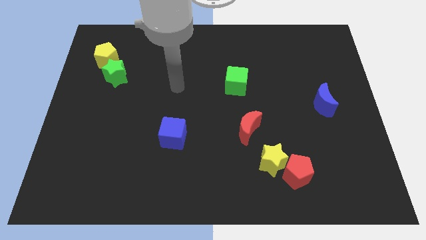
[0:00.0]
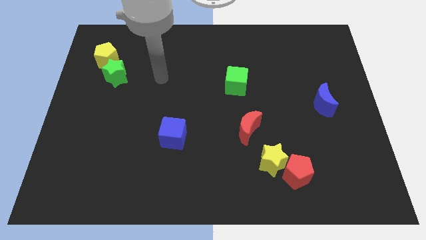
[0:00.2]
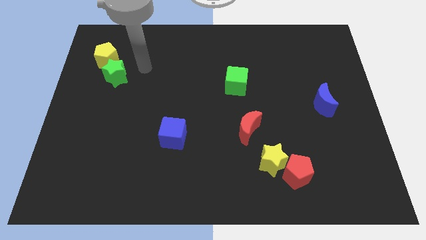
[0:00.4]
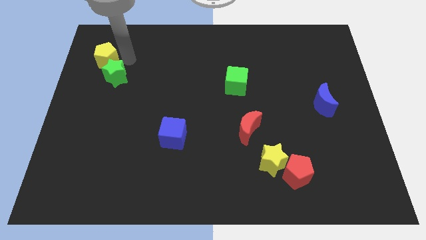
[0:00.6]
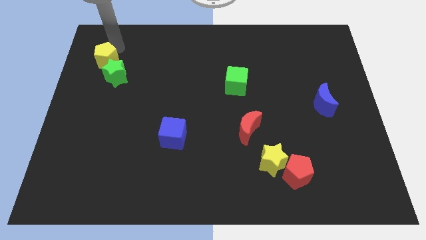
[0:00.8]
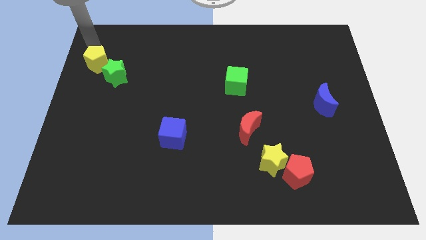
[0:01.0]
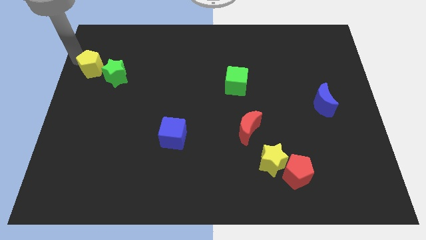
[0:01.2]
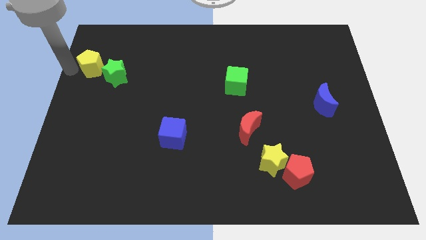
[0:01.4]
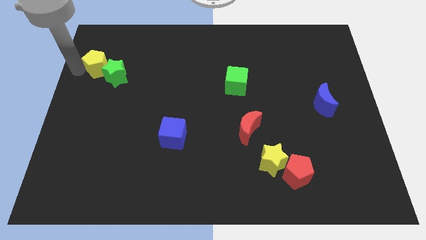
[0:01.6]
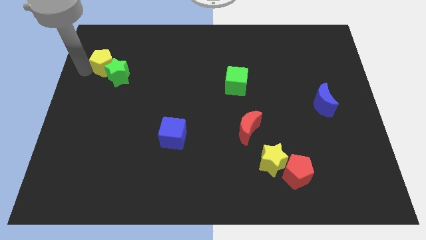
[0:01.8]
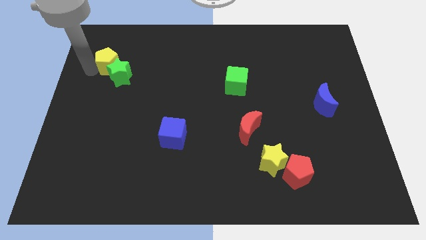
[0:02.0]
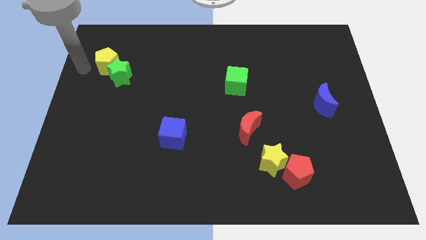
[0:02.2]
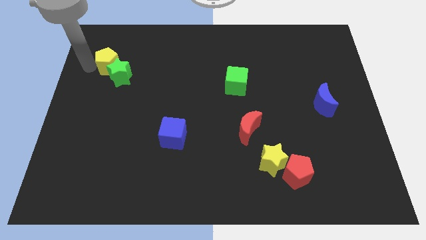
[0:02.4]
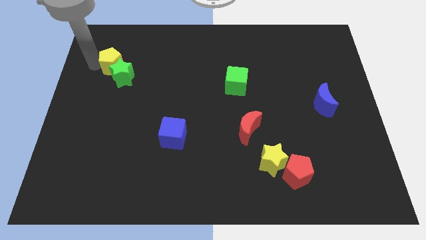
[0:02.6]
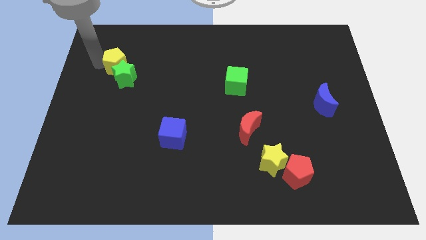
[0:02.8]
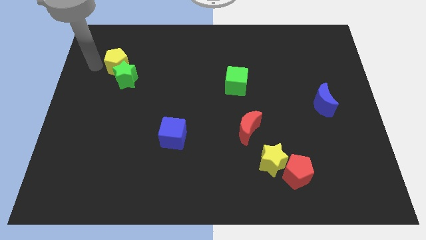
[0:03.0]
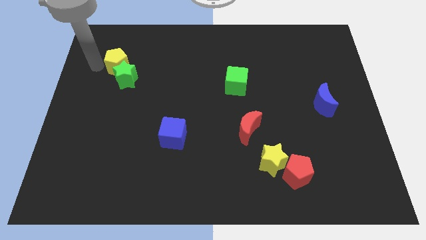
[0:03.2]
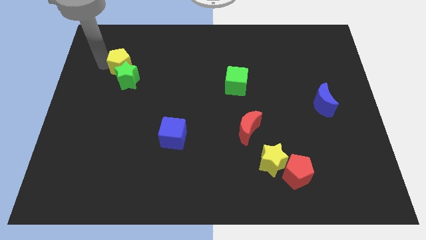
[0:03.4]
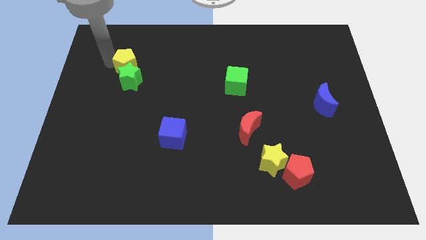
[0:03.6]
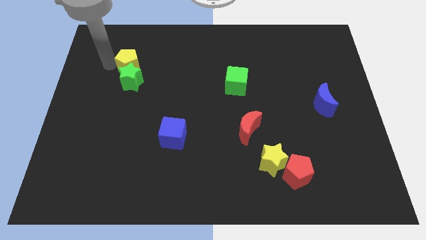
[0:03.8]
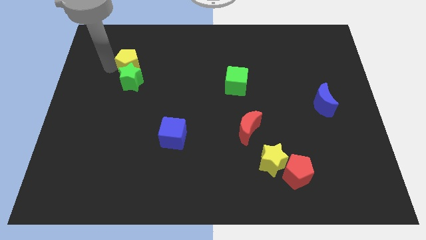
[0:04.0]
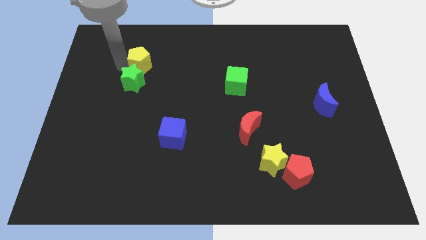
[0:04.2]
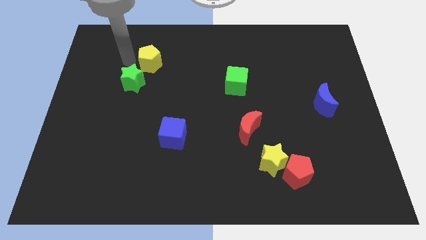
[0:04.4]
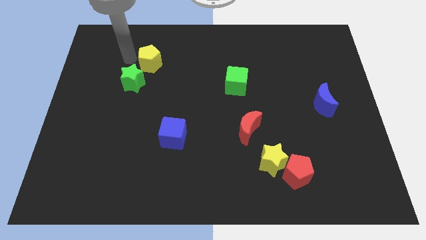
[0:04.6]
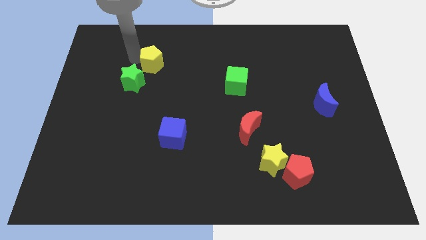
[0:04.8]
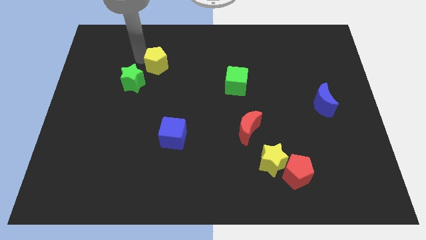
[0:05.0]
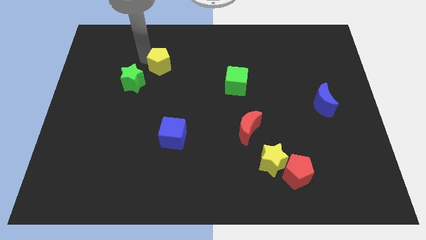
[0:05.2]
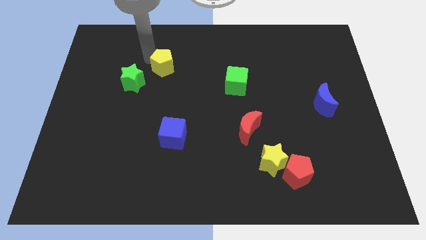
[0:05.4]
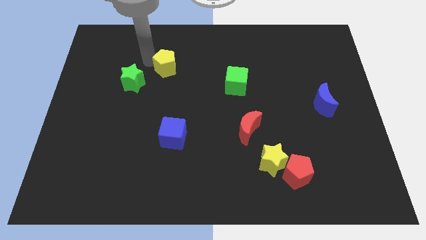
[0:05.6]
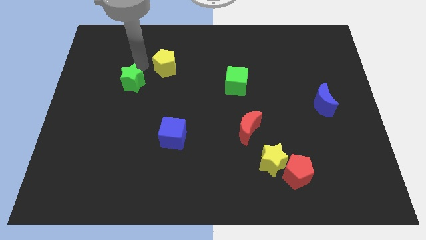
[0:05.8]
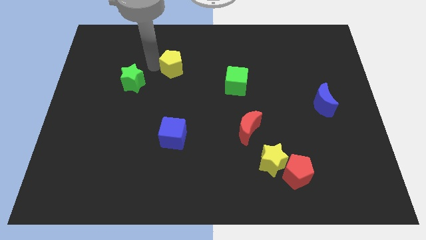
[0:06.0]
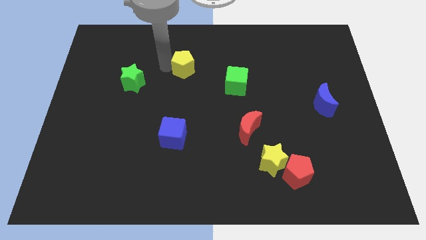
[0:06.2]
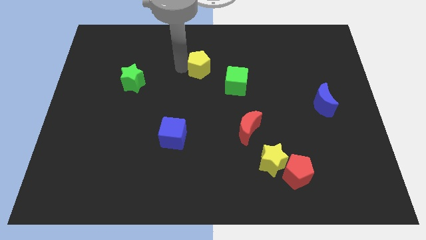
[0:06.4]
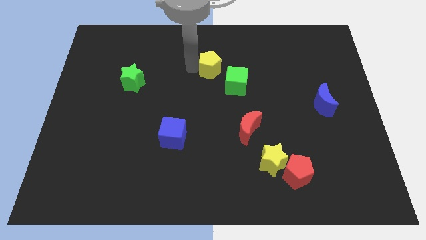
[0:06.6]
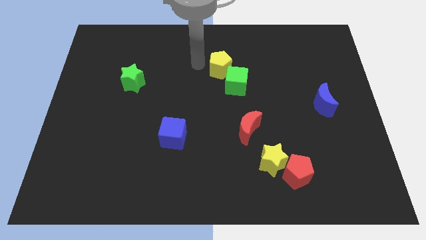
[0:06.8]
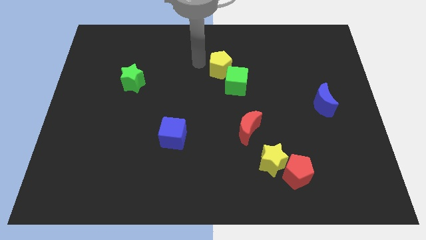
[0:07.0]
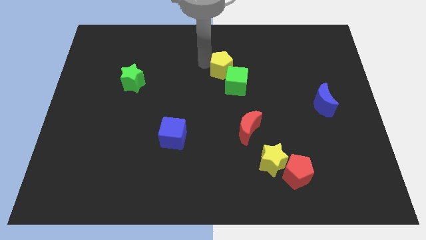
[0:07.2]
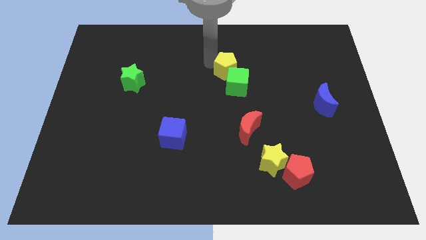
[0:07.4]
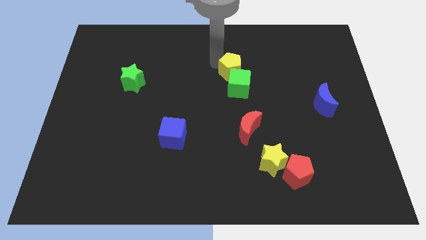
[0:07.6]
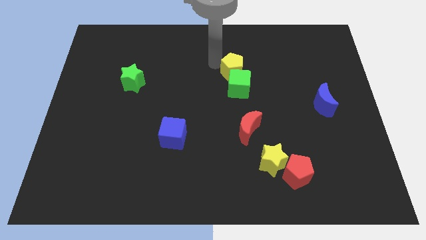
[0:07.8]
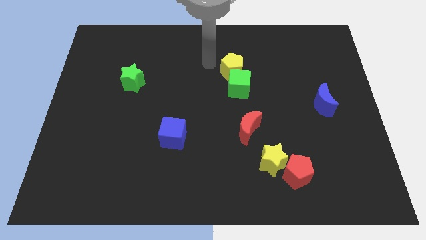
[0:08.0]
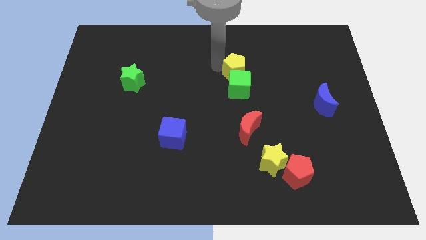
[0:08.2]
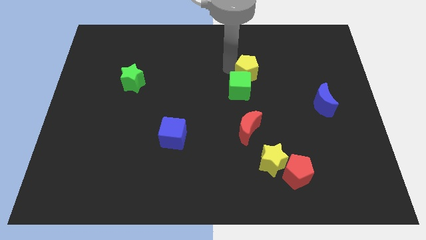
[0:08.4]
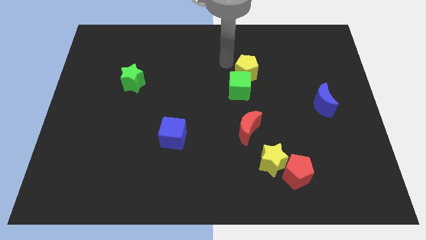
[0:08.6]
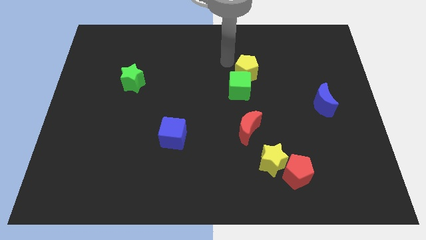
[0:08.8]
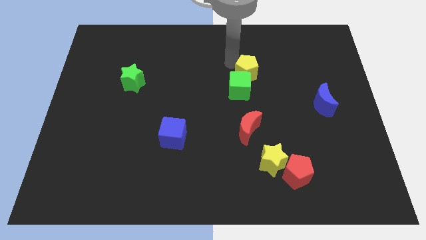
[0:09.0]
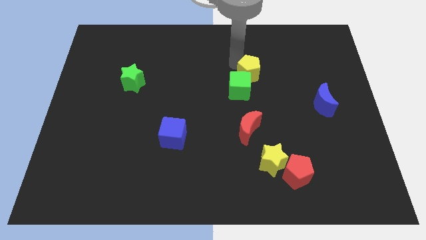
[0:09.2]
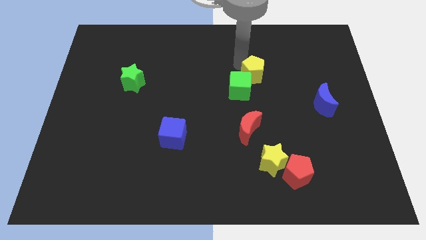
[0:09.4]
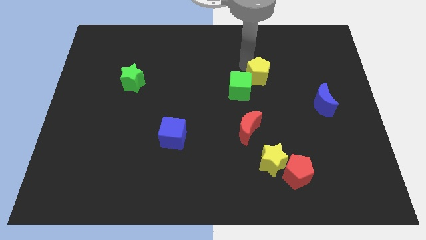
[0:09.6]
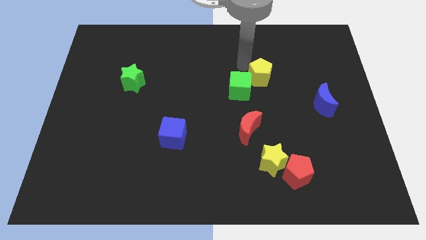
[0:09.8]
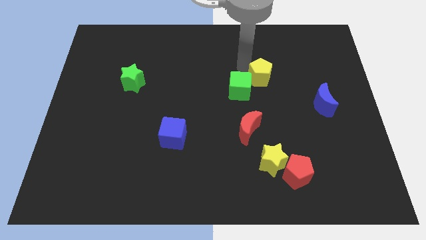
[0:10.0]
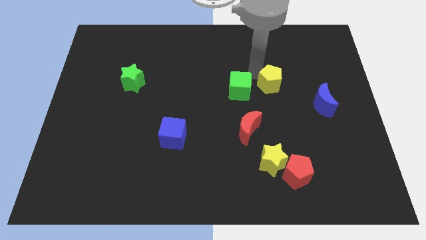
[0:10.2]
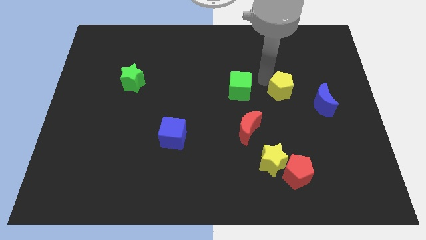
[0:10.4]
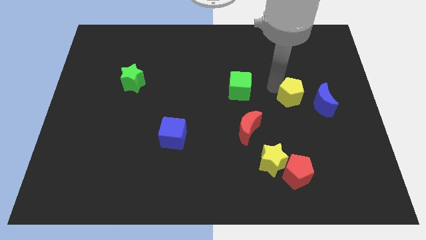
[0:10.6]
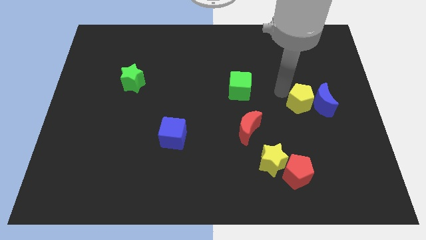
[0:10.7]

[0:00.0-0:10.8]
move the yellow pentagon close to the blue moon

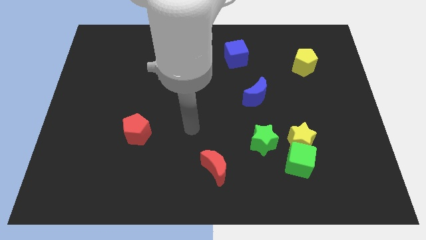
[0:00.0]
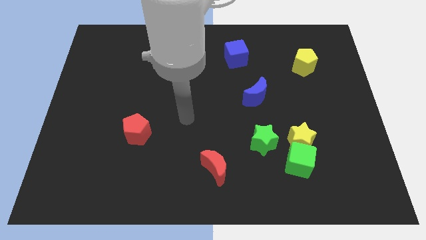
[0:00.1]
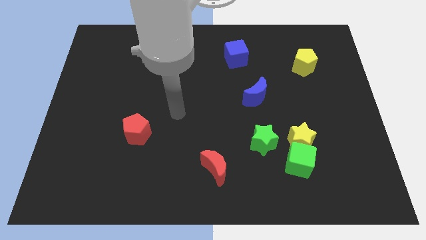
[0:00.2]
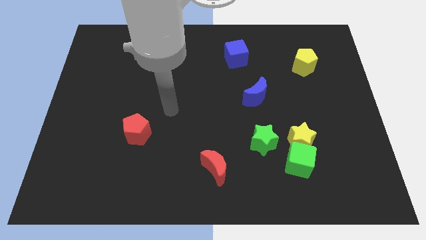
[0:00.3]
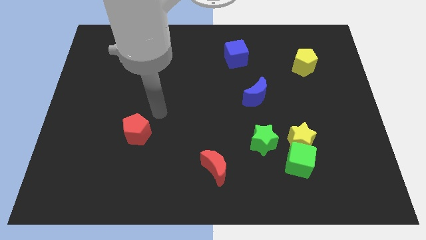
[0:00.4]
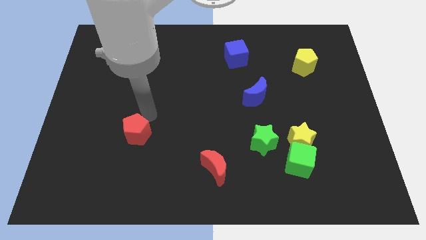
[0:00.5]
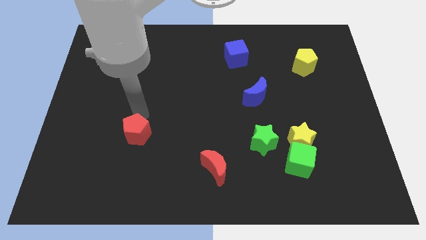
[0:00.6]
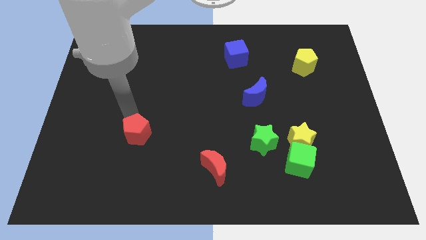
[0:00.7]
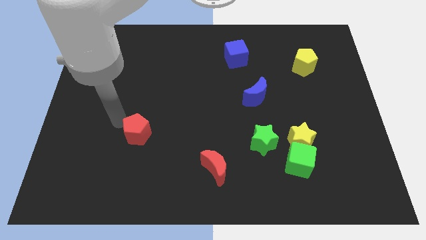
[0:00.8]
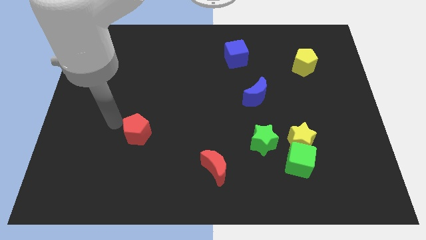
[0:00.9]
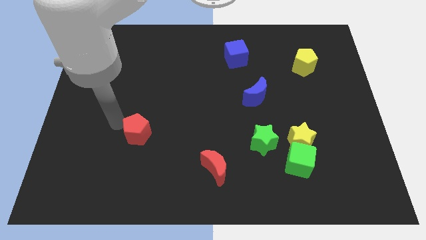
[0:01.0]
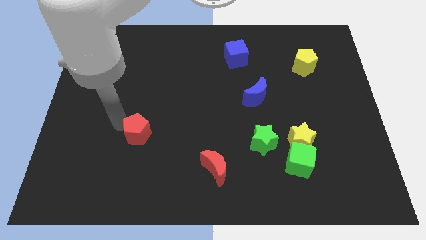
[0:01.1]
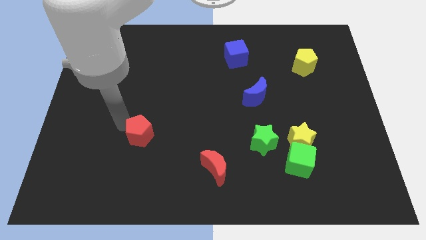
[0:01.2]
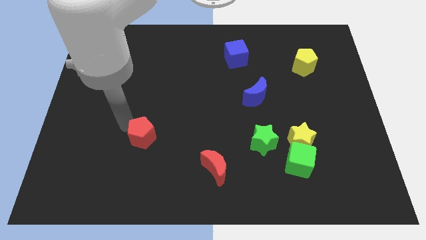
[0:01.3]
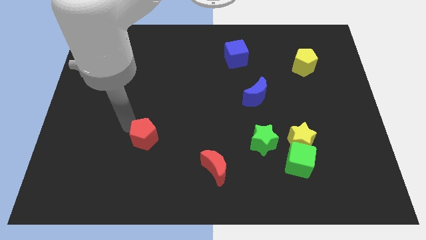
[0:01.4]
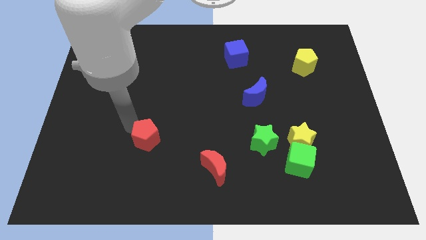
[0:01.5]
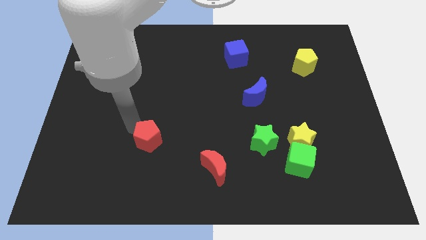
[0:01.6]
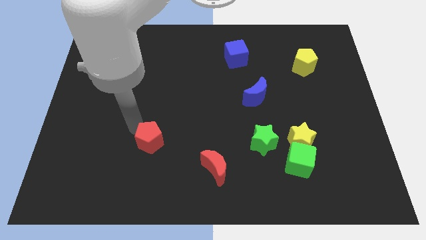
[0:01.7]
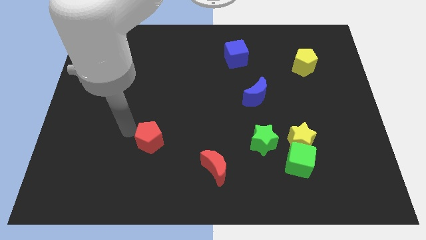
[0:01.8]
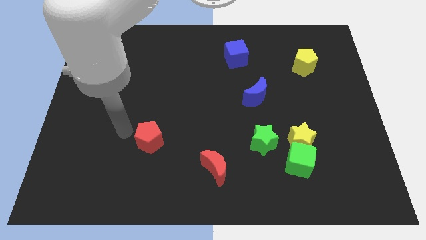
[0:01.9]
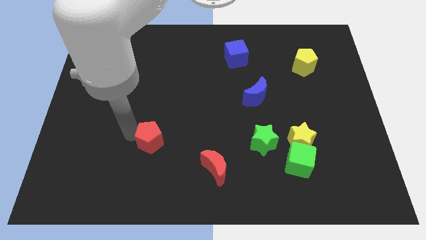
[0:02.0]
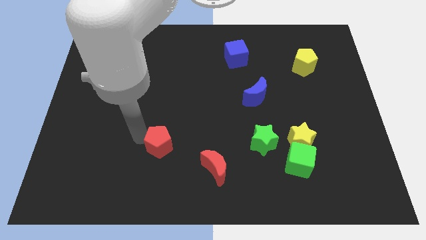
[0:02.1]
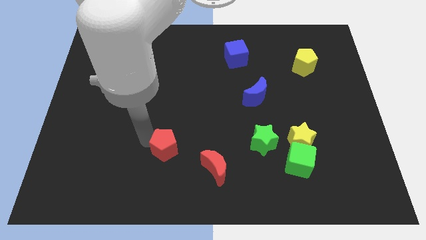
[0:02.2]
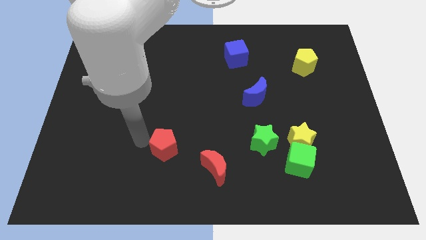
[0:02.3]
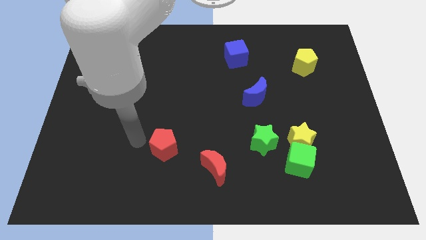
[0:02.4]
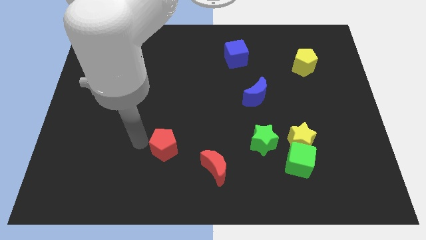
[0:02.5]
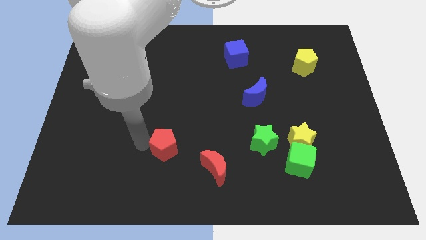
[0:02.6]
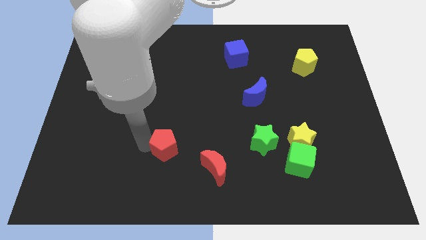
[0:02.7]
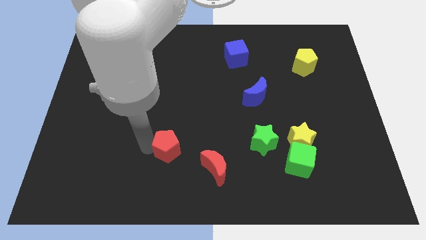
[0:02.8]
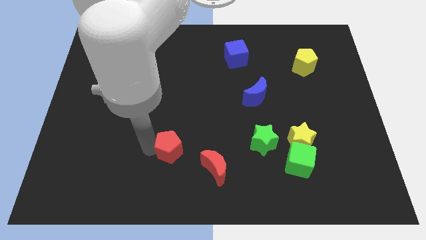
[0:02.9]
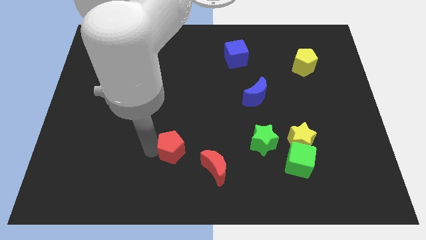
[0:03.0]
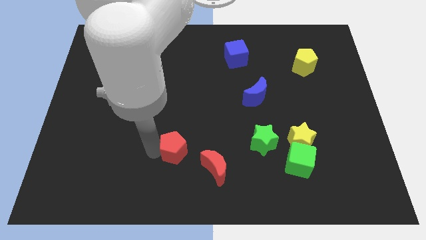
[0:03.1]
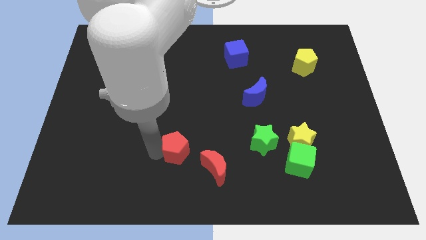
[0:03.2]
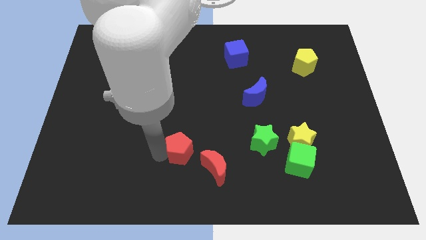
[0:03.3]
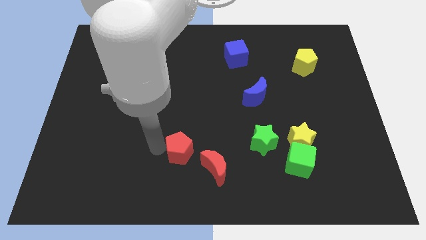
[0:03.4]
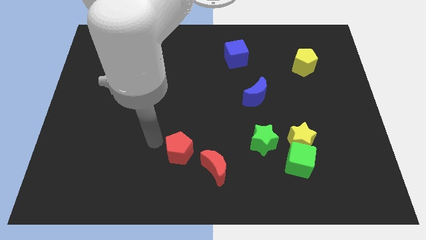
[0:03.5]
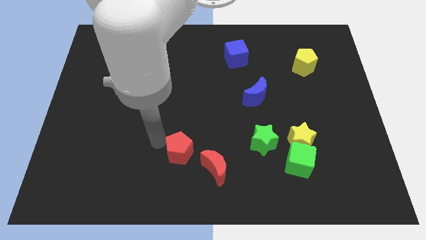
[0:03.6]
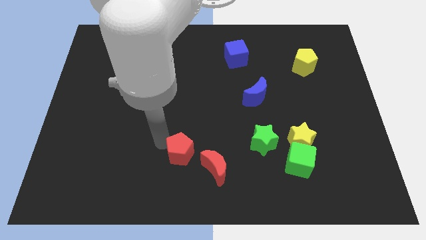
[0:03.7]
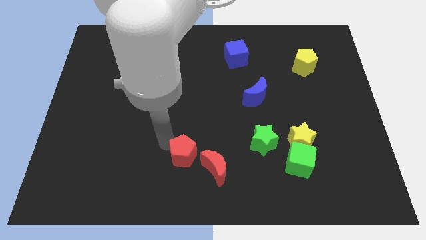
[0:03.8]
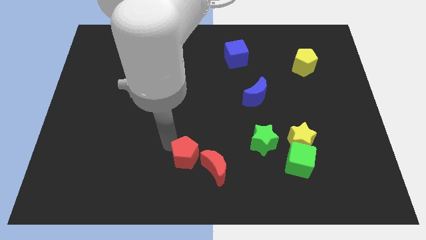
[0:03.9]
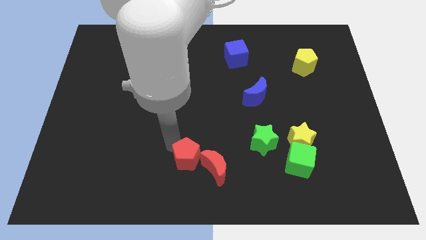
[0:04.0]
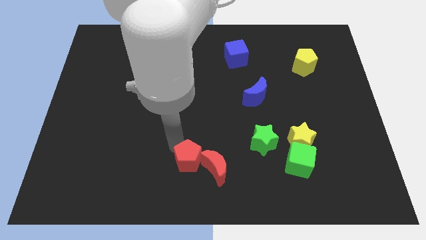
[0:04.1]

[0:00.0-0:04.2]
push the red pentagon next to the red moon
